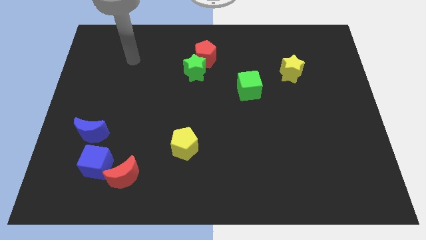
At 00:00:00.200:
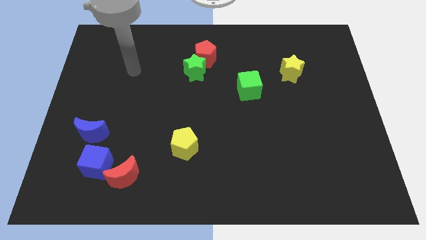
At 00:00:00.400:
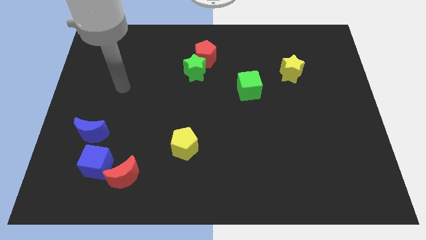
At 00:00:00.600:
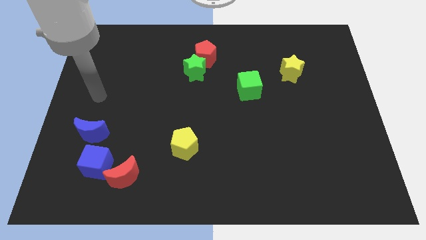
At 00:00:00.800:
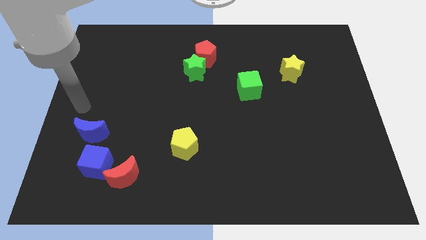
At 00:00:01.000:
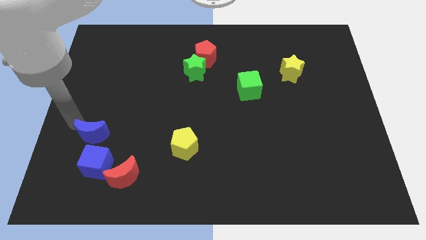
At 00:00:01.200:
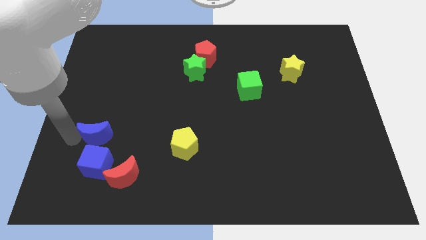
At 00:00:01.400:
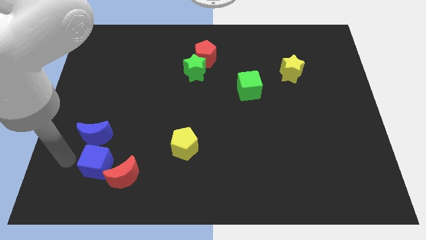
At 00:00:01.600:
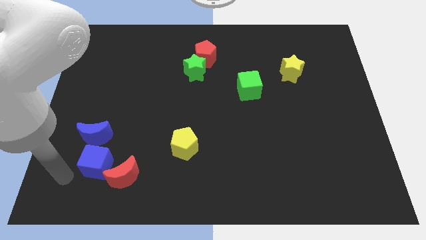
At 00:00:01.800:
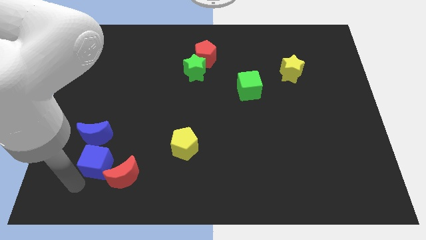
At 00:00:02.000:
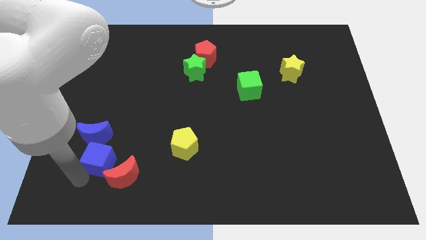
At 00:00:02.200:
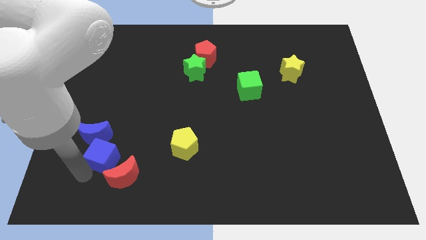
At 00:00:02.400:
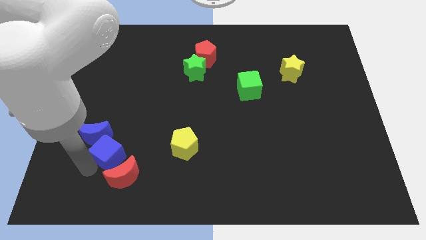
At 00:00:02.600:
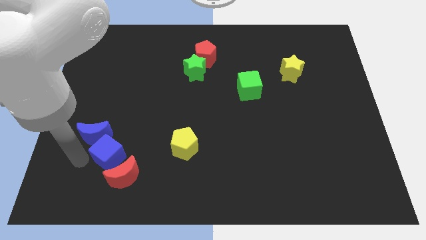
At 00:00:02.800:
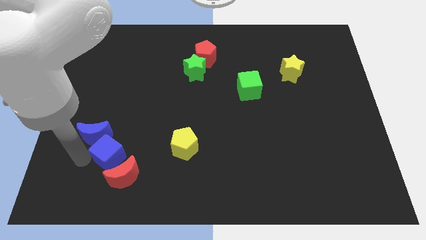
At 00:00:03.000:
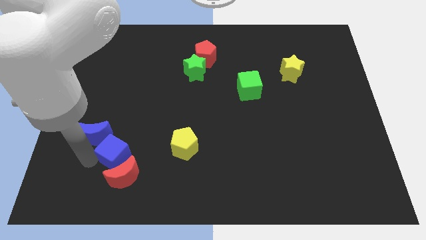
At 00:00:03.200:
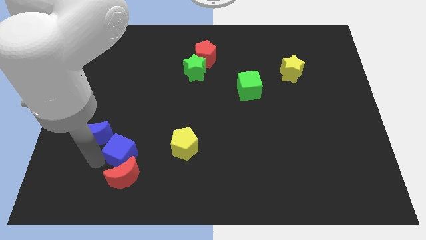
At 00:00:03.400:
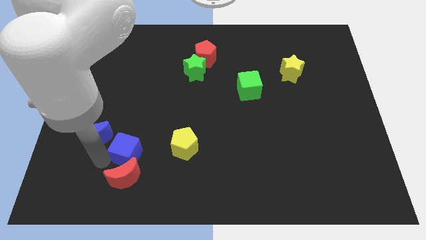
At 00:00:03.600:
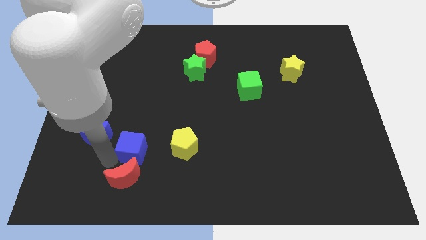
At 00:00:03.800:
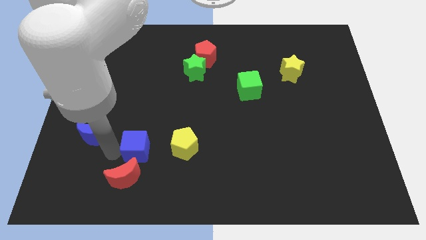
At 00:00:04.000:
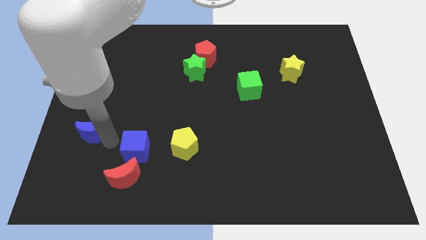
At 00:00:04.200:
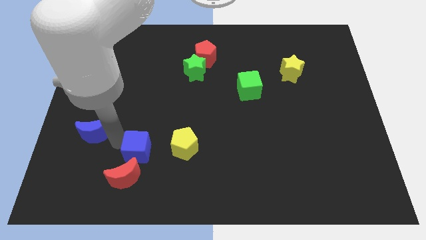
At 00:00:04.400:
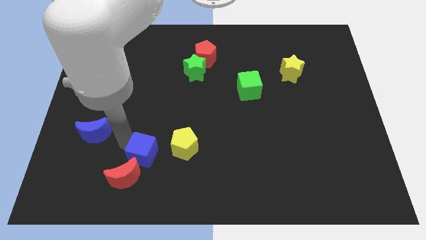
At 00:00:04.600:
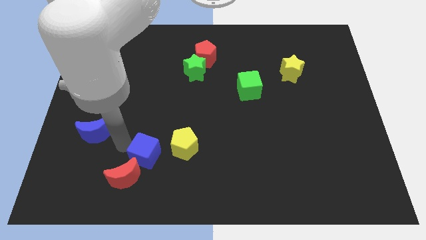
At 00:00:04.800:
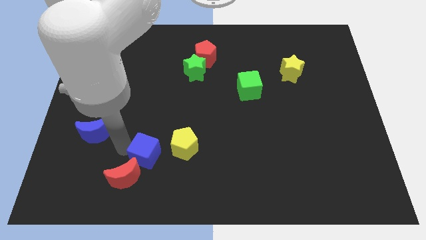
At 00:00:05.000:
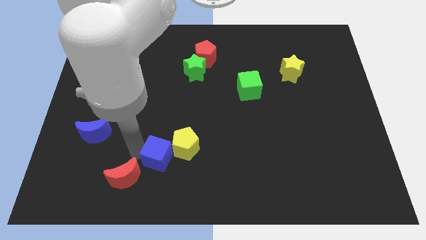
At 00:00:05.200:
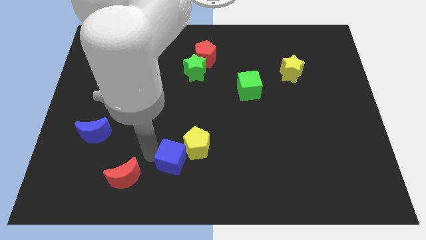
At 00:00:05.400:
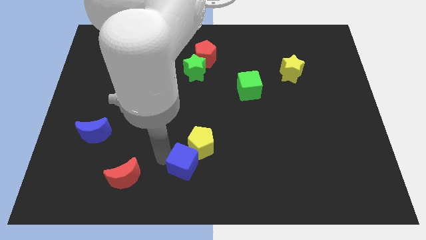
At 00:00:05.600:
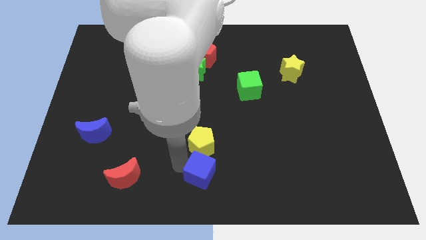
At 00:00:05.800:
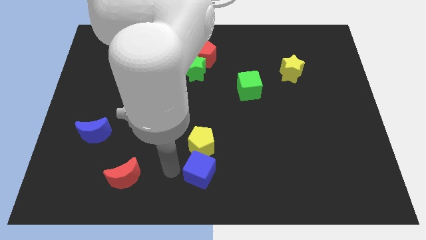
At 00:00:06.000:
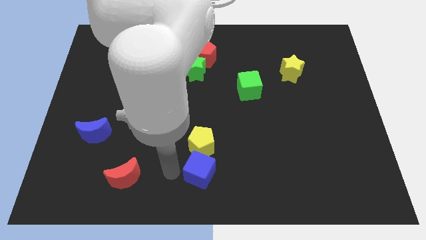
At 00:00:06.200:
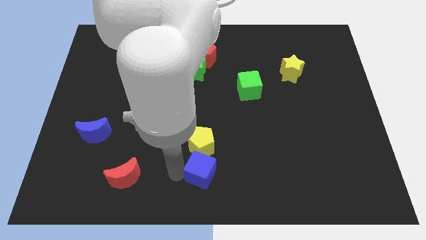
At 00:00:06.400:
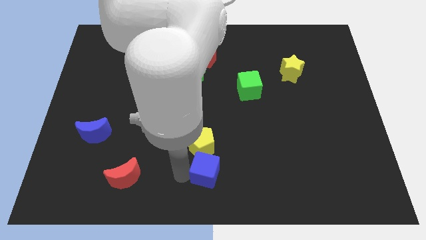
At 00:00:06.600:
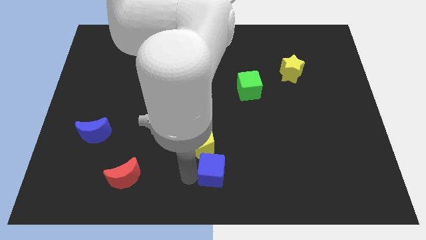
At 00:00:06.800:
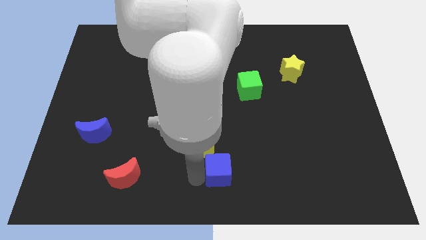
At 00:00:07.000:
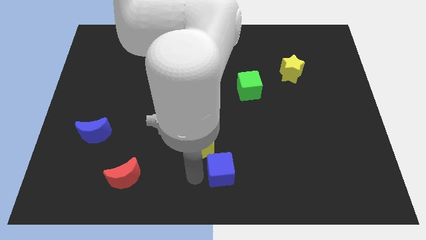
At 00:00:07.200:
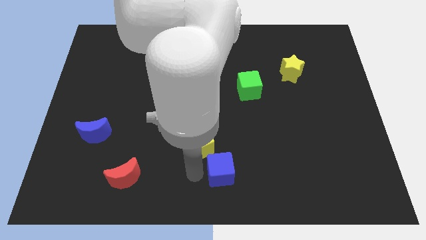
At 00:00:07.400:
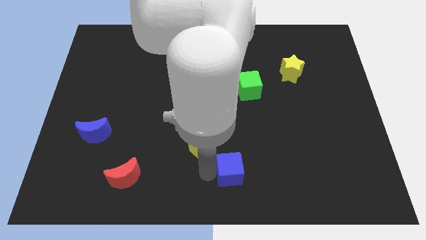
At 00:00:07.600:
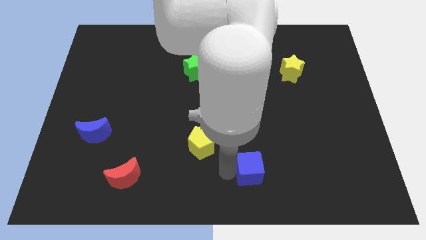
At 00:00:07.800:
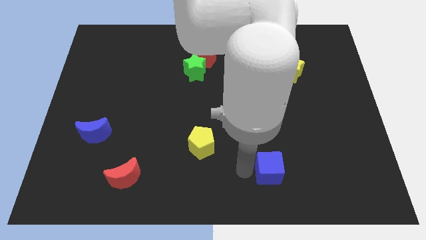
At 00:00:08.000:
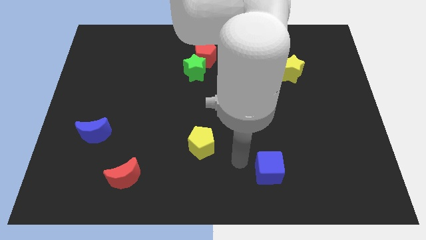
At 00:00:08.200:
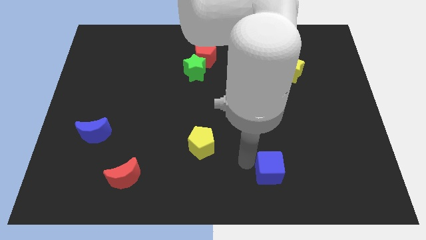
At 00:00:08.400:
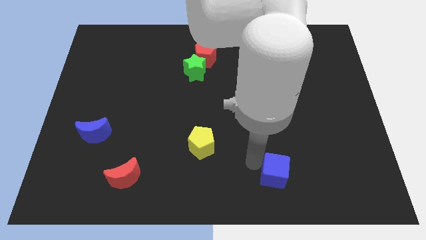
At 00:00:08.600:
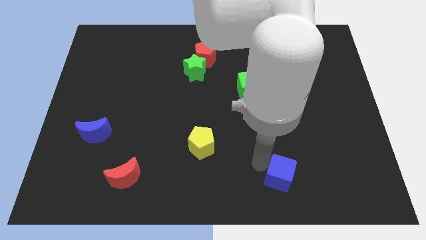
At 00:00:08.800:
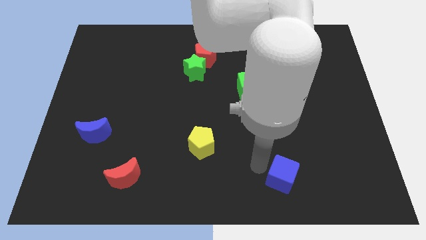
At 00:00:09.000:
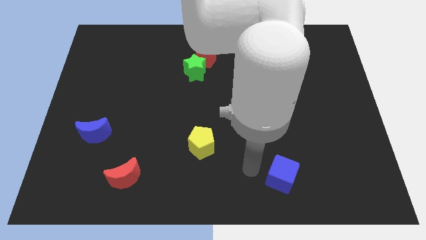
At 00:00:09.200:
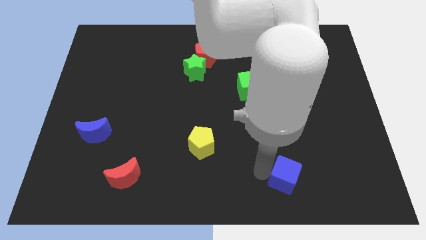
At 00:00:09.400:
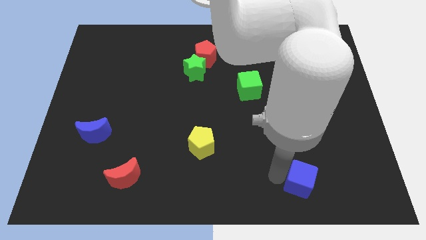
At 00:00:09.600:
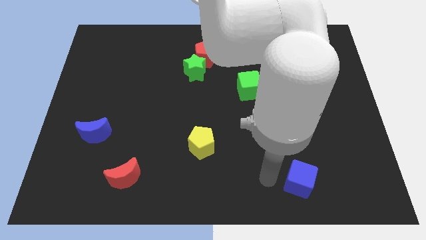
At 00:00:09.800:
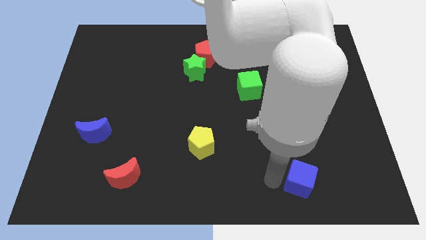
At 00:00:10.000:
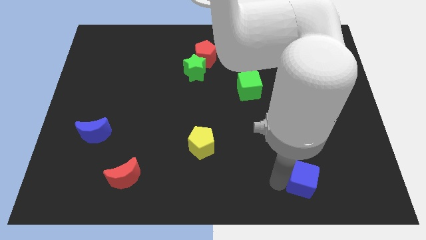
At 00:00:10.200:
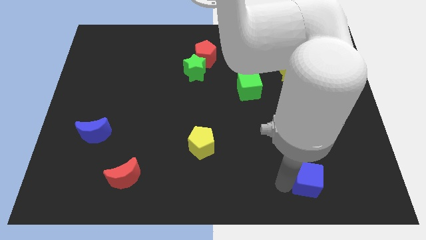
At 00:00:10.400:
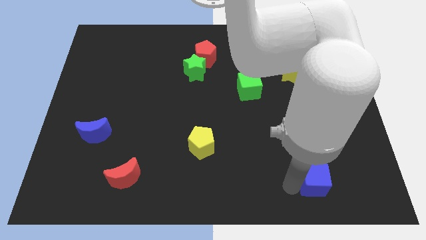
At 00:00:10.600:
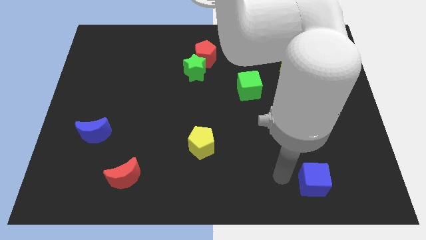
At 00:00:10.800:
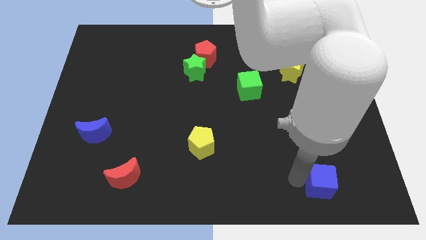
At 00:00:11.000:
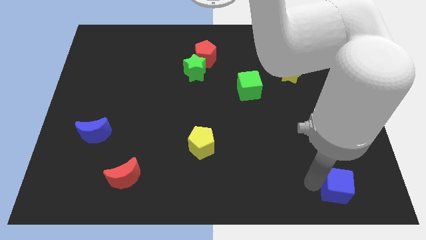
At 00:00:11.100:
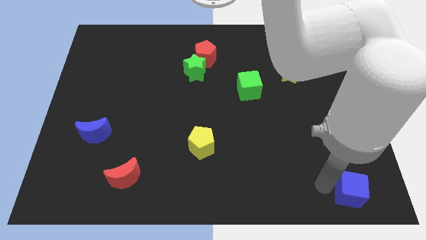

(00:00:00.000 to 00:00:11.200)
move the blue cube to the bottom right of the board

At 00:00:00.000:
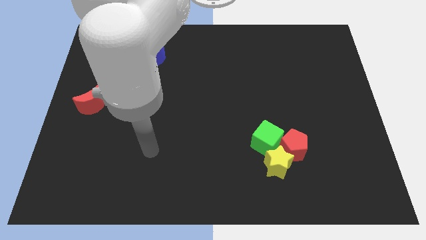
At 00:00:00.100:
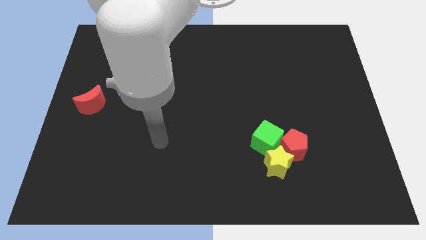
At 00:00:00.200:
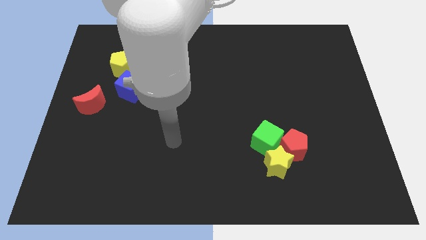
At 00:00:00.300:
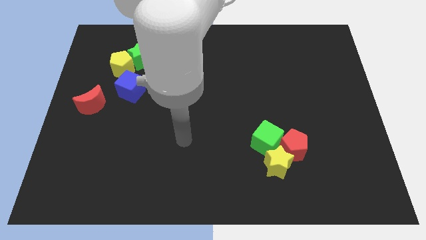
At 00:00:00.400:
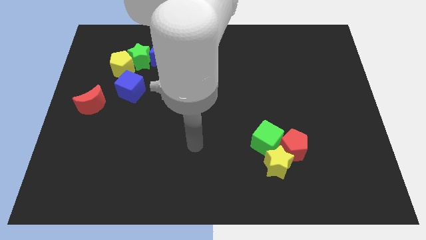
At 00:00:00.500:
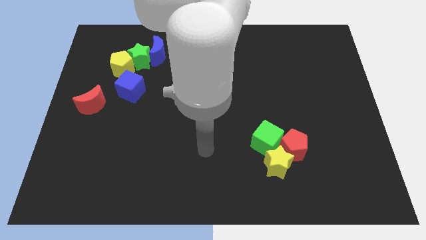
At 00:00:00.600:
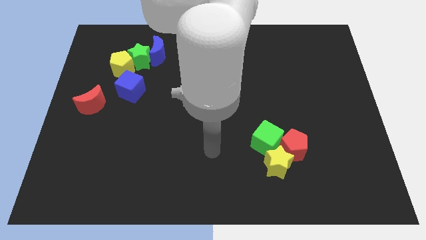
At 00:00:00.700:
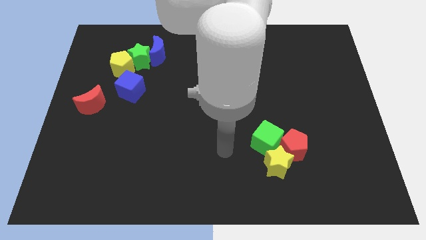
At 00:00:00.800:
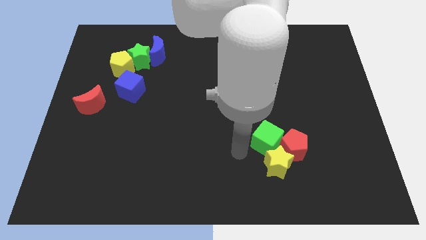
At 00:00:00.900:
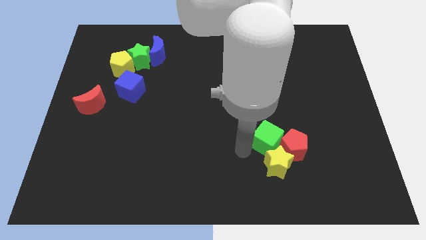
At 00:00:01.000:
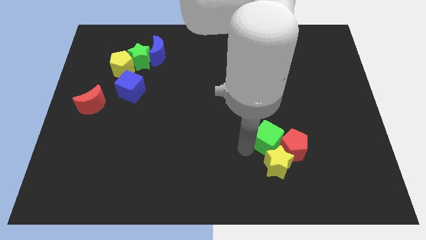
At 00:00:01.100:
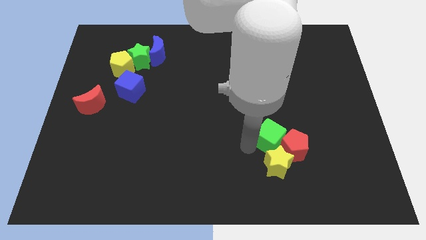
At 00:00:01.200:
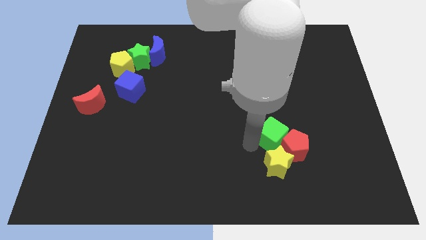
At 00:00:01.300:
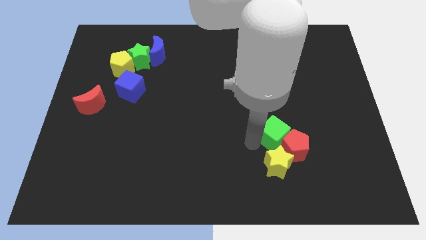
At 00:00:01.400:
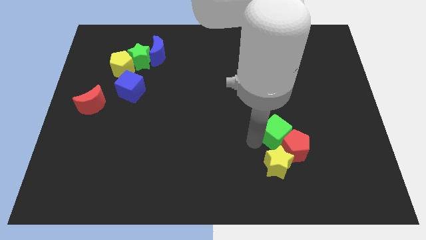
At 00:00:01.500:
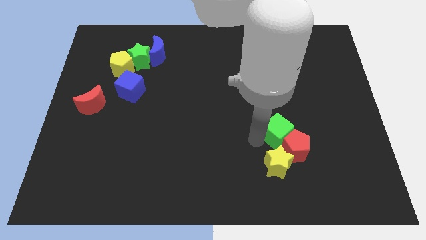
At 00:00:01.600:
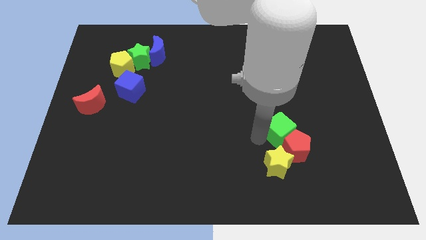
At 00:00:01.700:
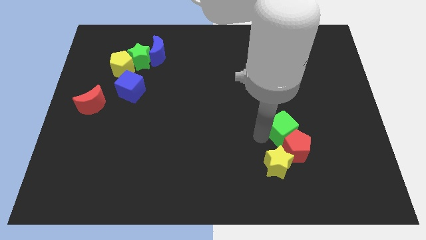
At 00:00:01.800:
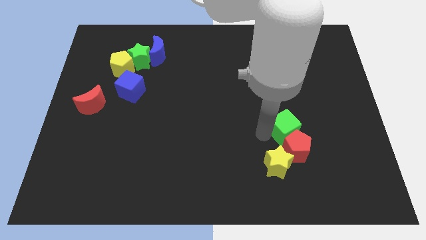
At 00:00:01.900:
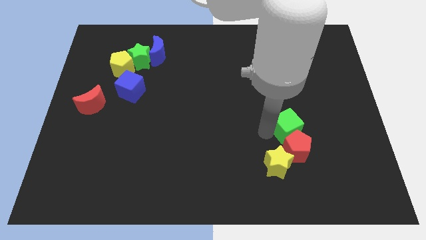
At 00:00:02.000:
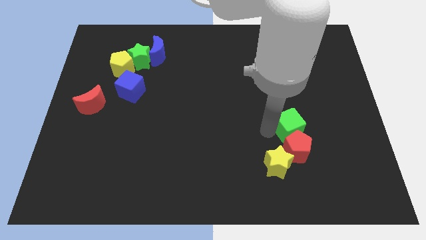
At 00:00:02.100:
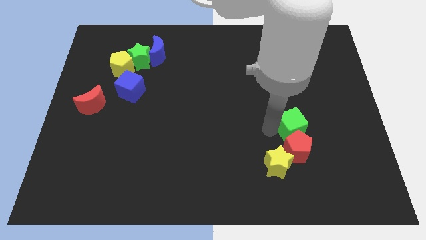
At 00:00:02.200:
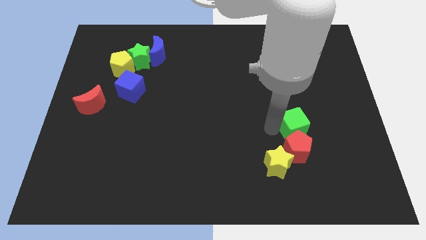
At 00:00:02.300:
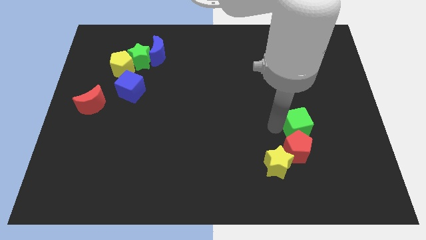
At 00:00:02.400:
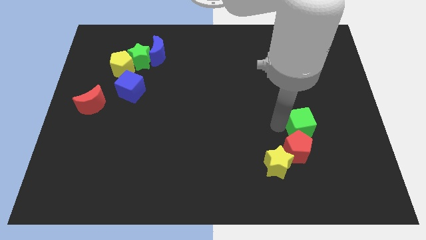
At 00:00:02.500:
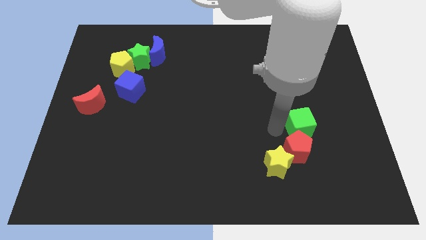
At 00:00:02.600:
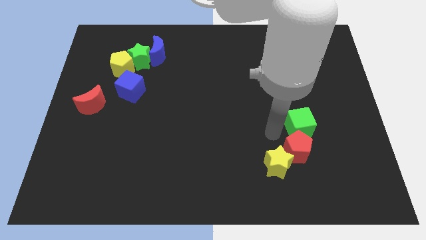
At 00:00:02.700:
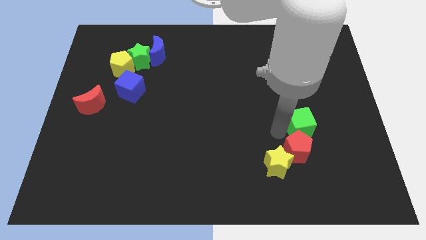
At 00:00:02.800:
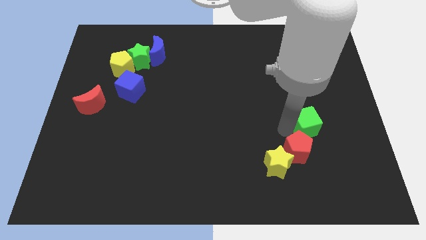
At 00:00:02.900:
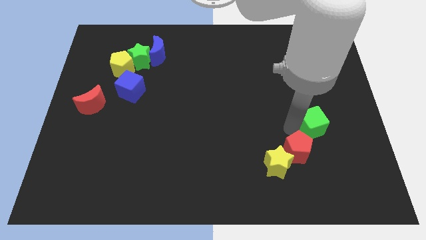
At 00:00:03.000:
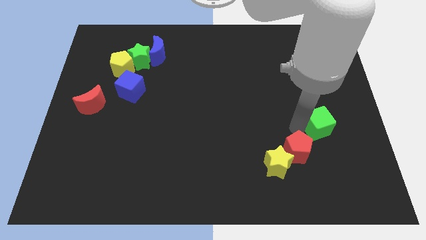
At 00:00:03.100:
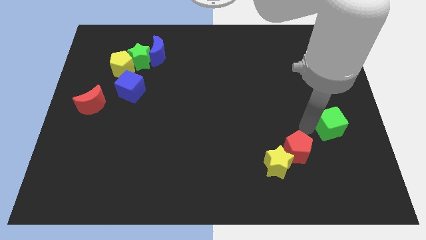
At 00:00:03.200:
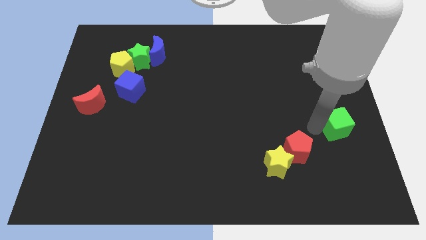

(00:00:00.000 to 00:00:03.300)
push the green cube to the right side of the board
